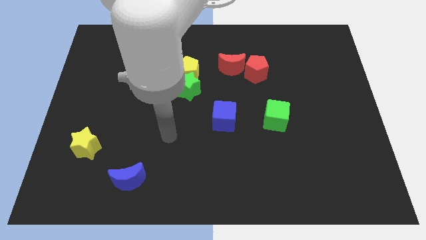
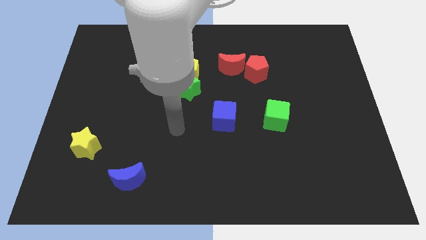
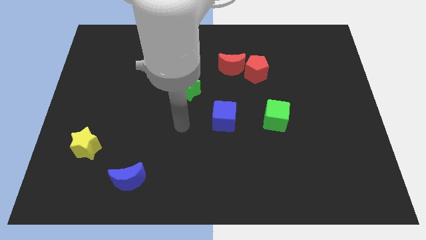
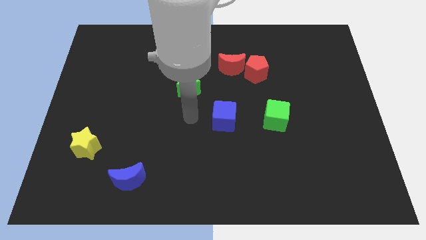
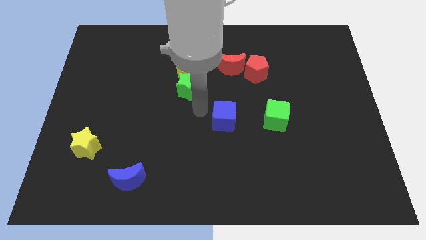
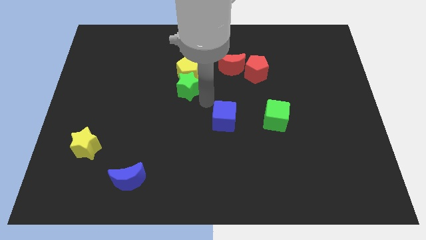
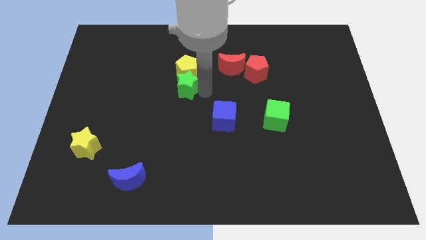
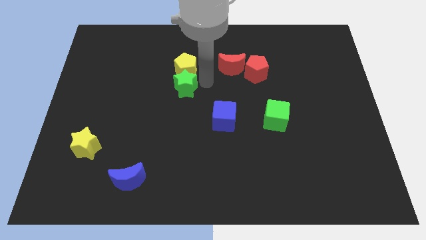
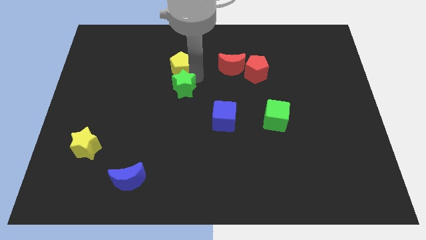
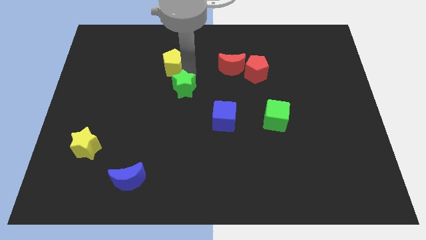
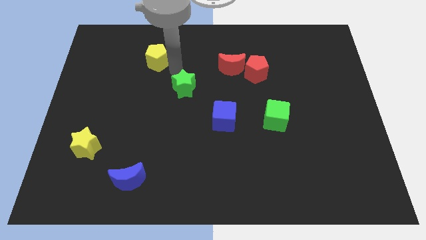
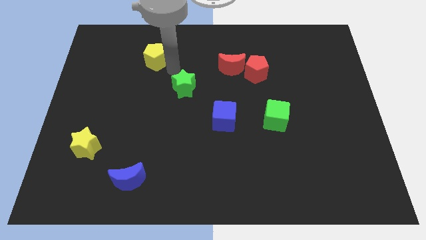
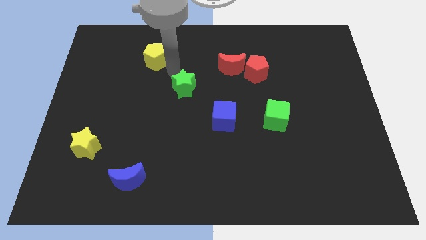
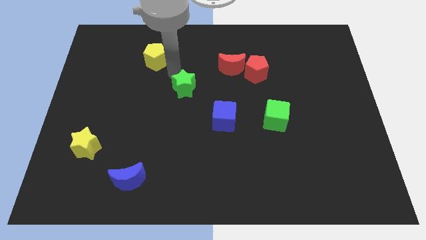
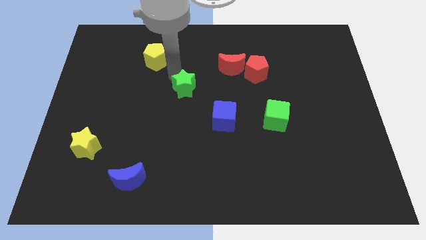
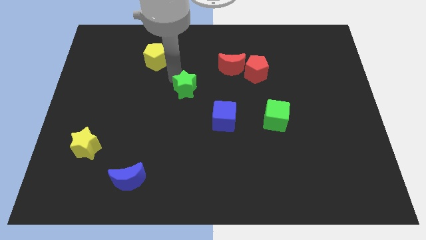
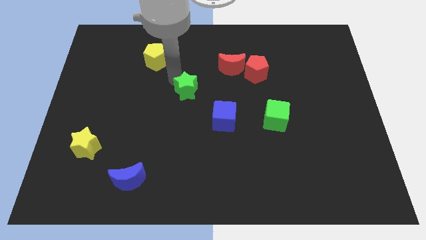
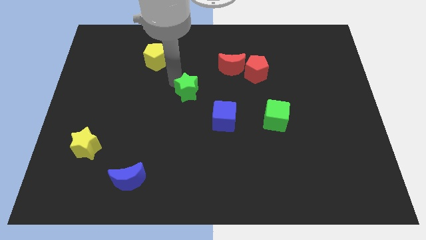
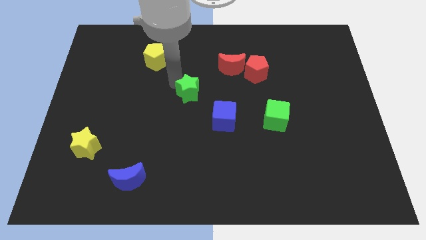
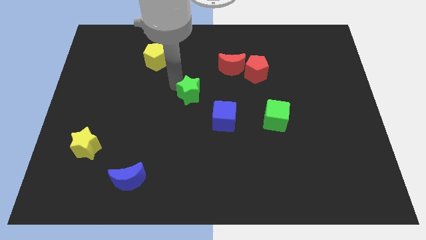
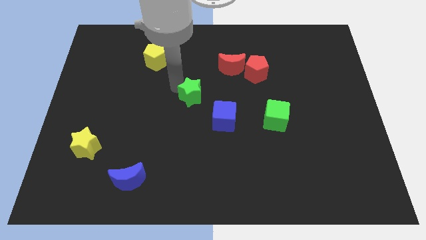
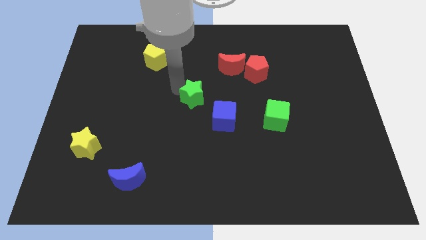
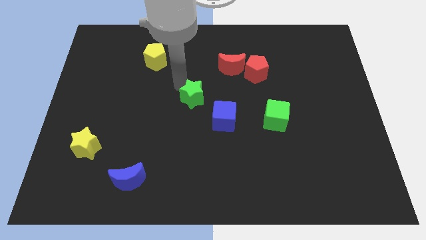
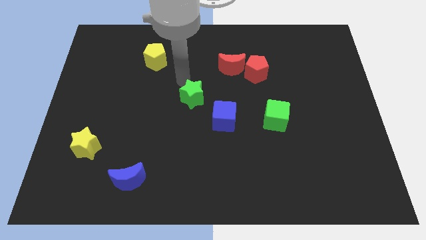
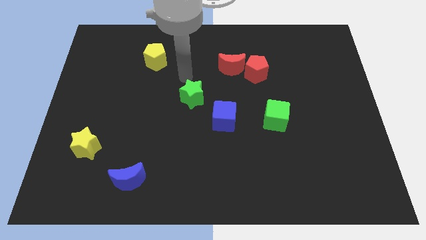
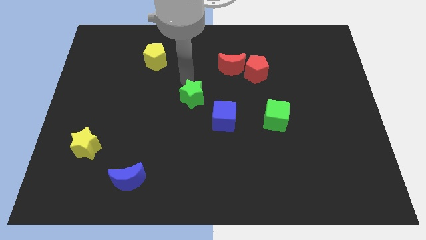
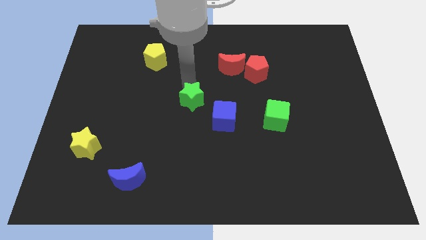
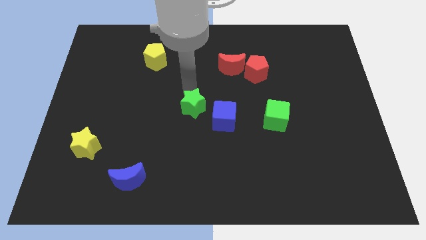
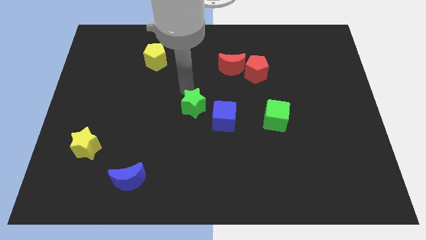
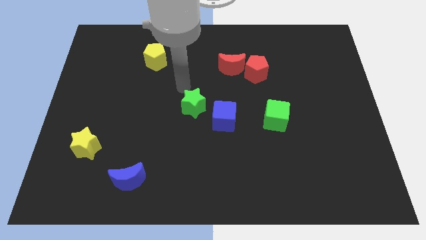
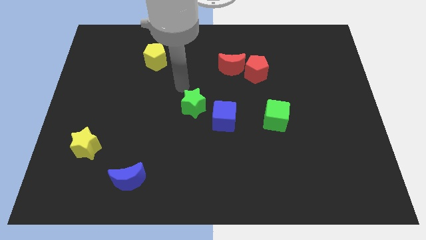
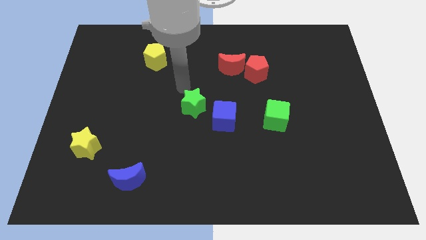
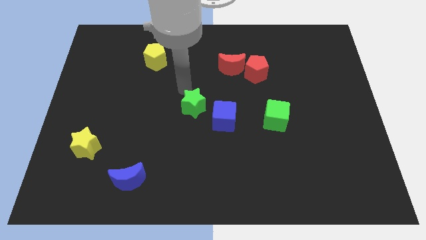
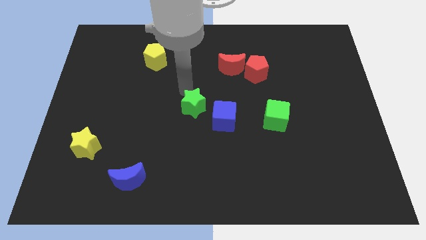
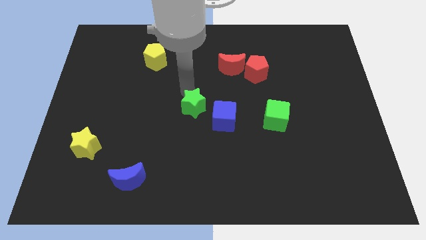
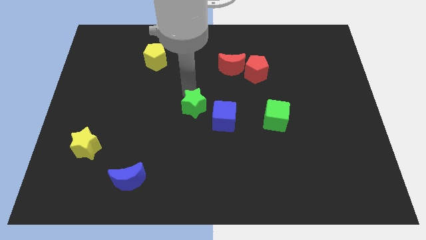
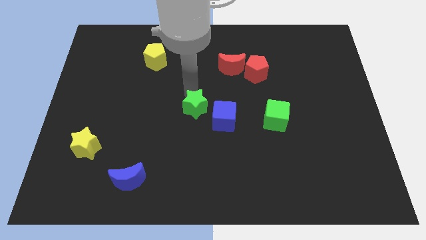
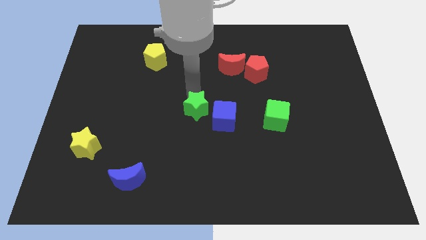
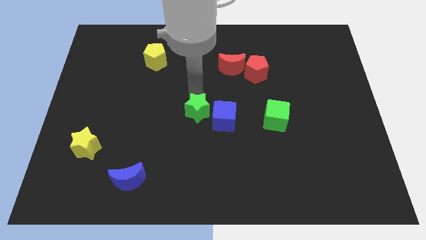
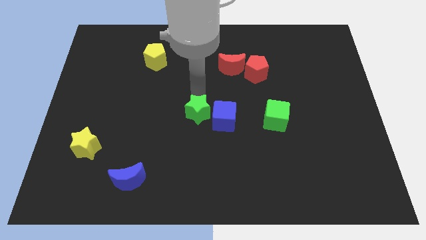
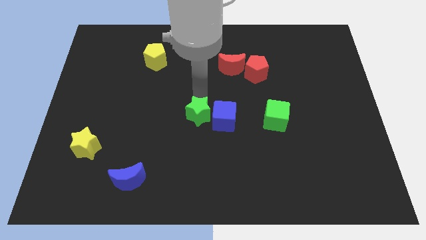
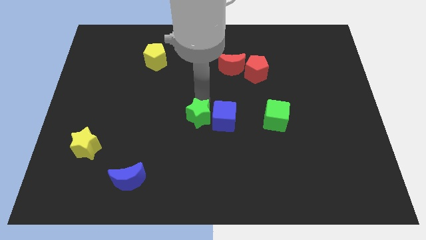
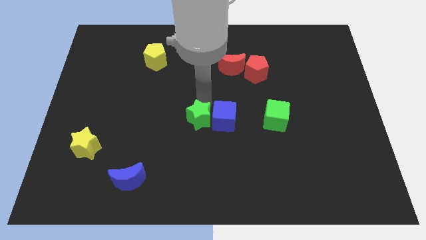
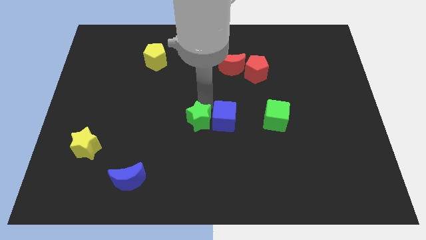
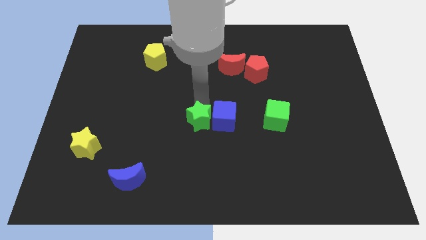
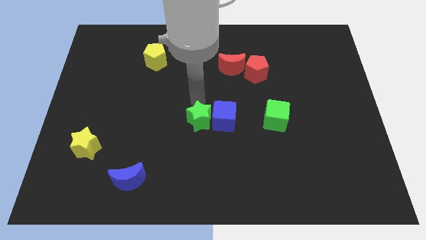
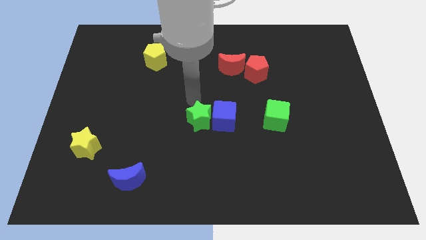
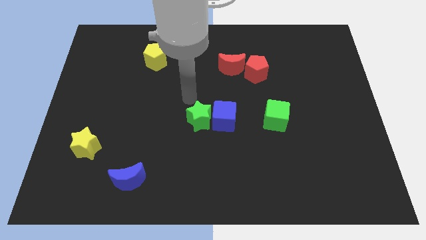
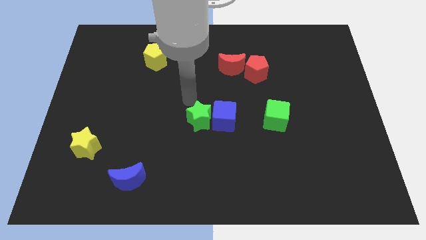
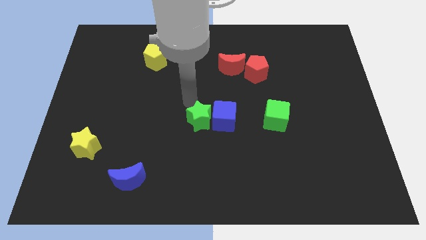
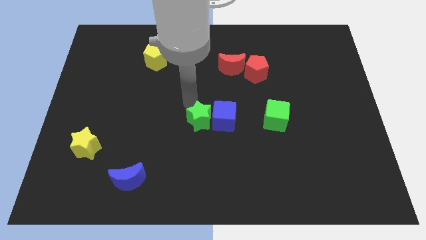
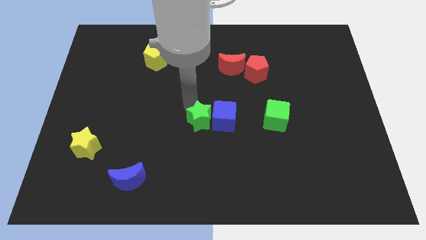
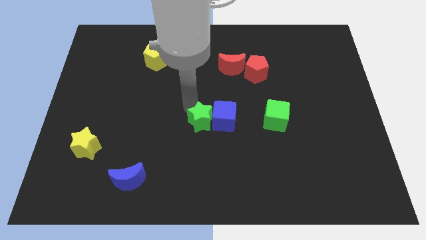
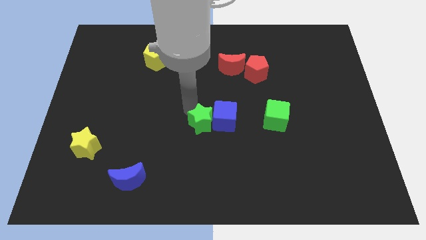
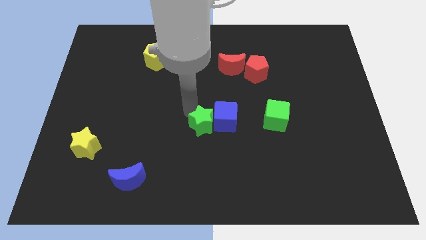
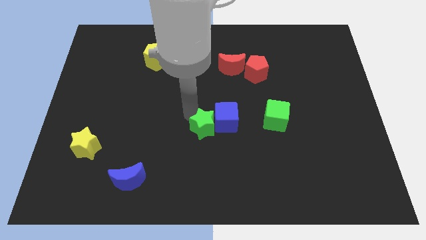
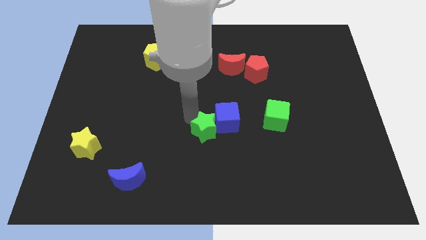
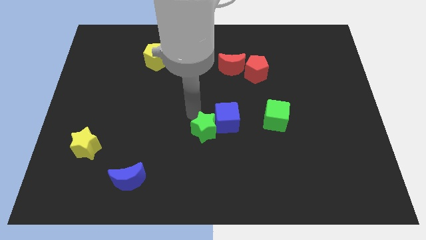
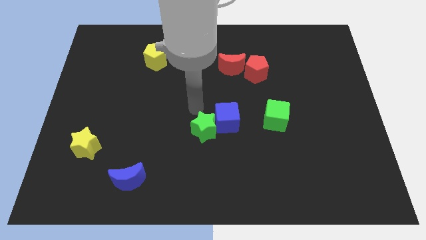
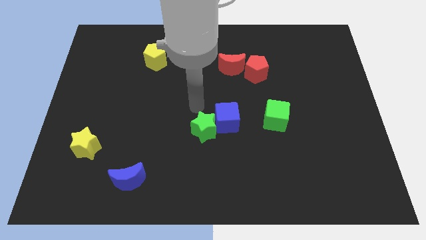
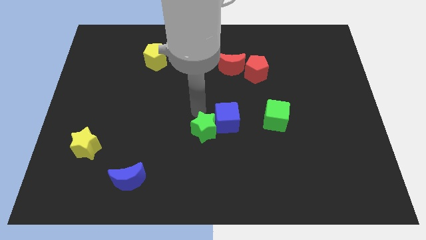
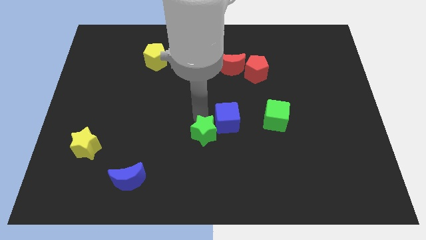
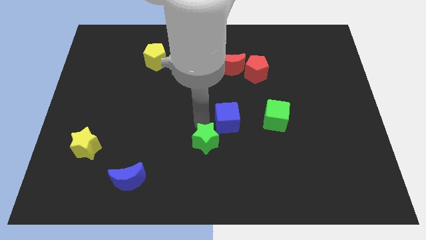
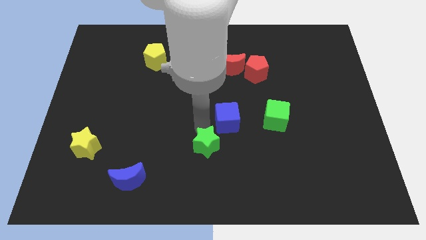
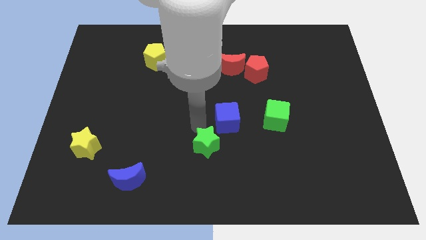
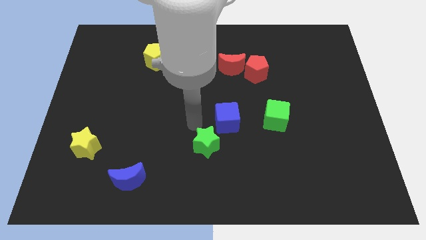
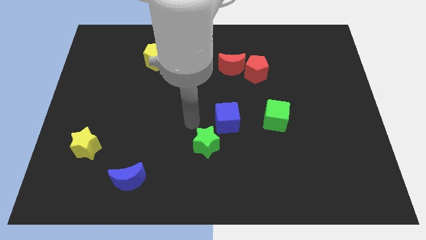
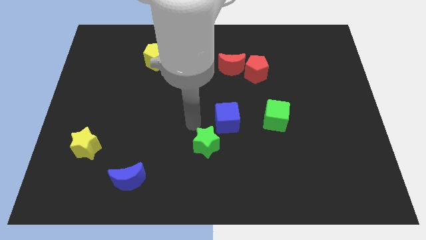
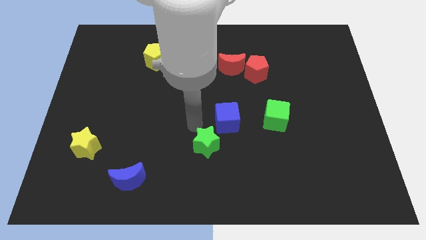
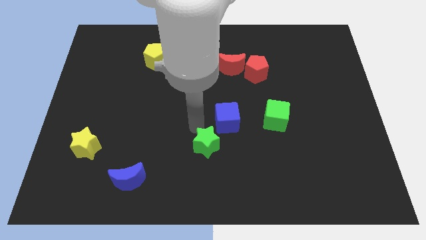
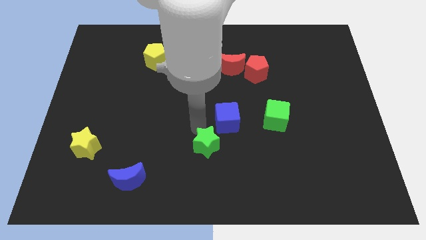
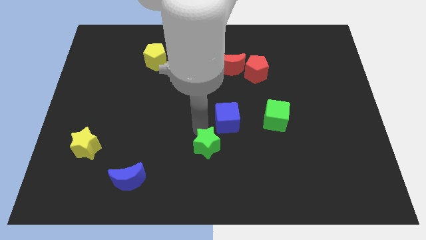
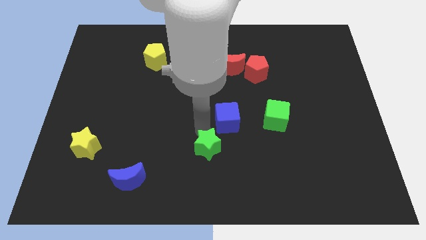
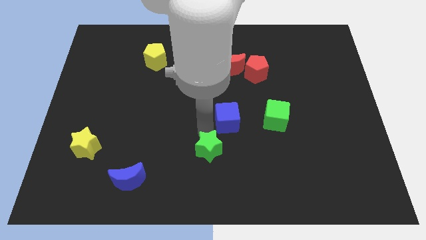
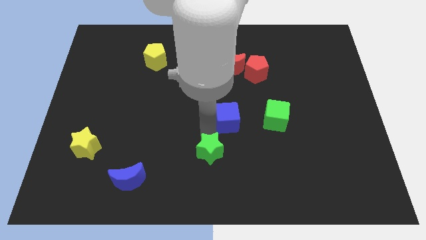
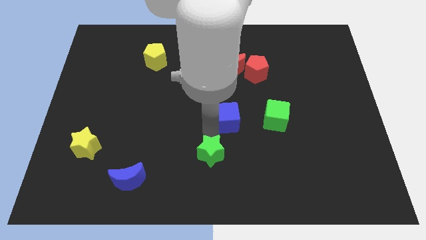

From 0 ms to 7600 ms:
move the green star to the bottom side

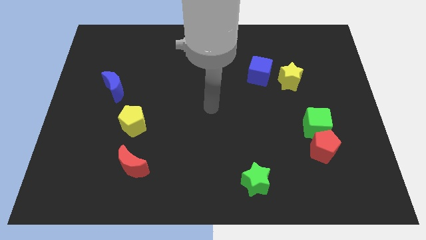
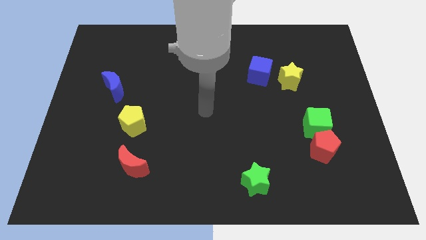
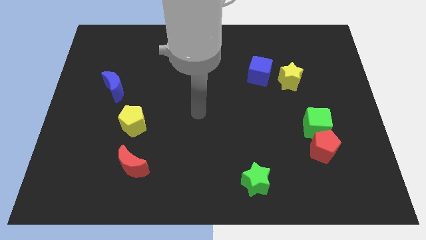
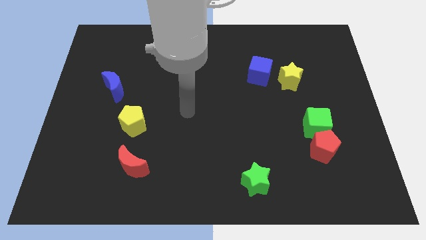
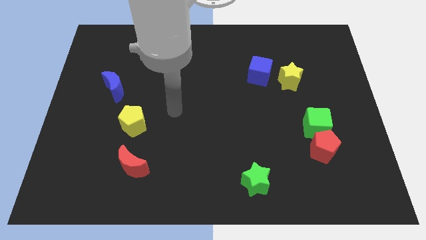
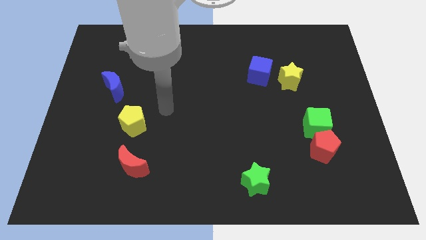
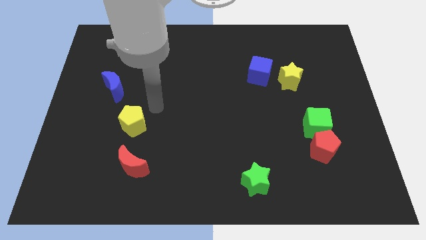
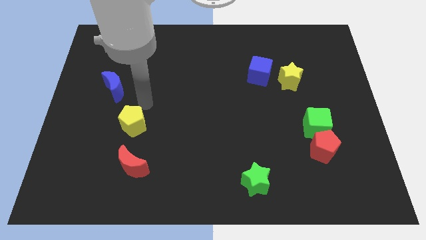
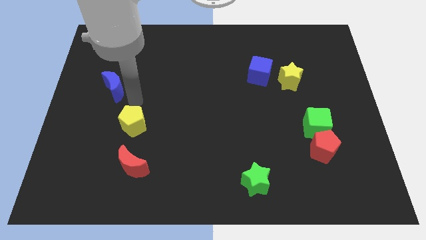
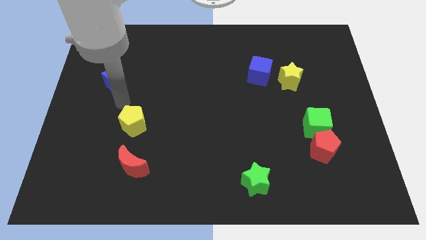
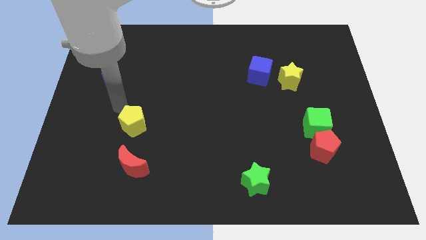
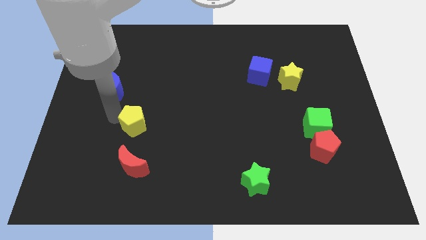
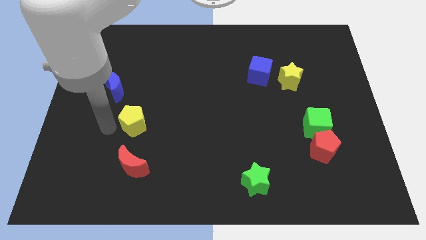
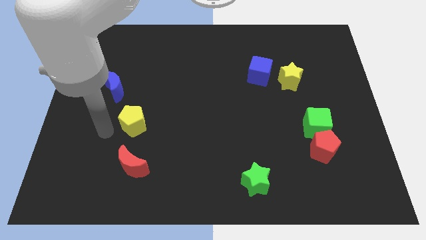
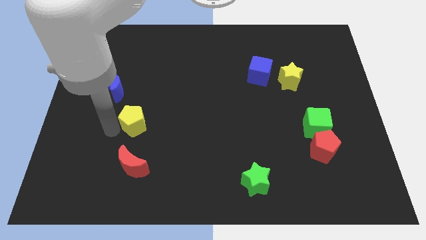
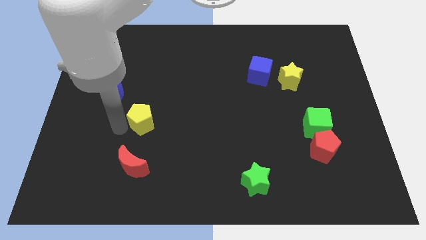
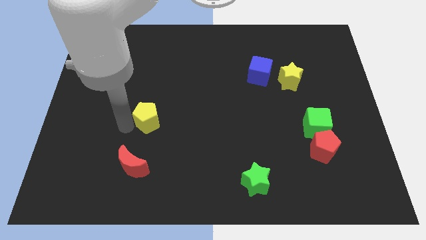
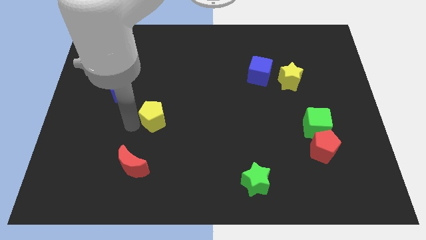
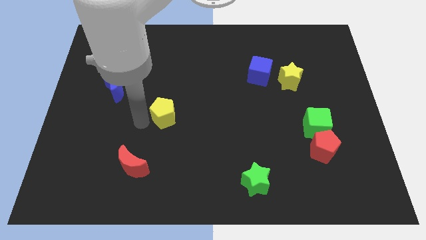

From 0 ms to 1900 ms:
push the yellow pentagon to the middle
